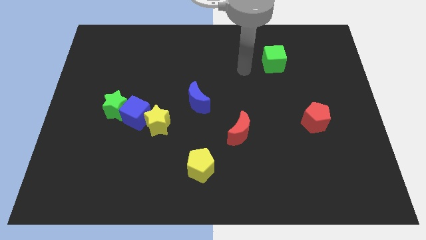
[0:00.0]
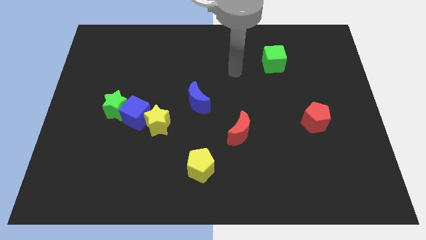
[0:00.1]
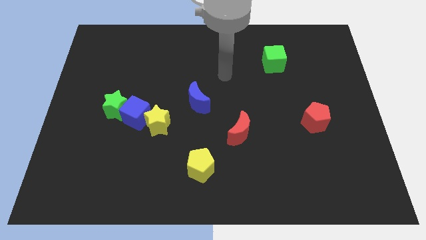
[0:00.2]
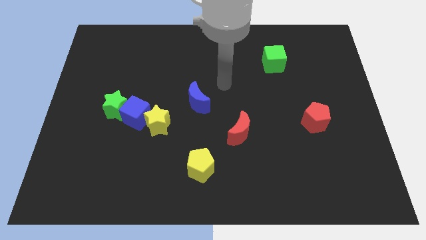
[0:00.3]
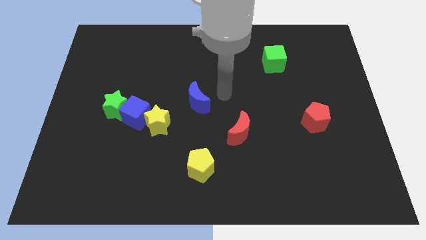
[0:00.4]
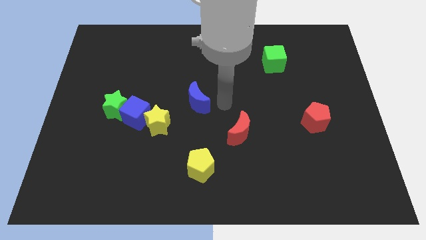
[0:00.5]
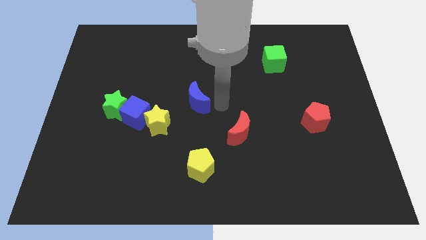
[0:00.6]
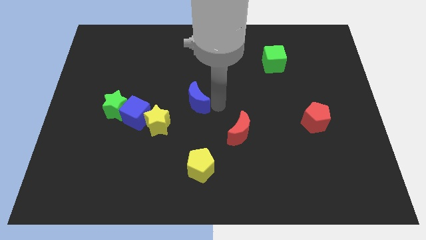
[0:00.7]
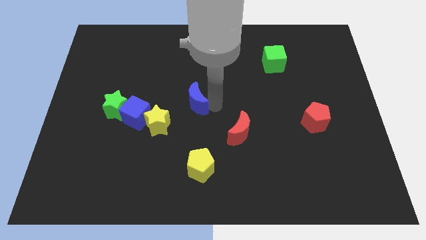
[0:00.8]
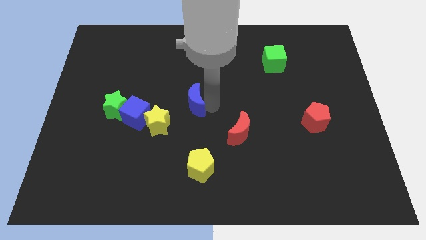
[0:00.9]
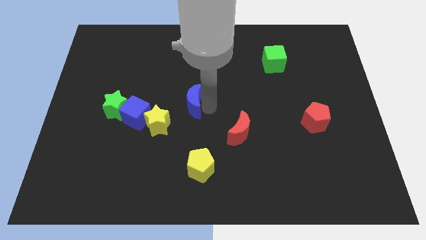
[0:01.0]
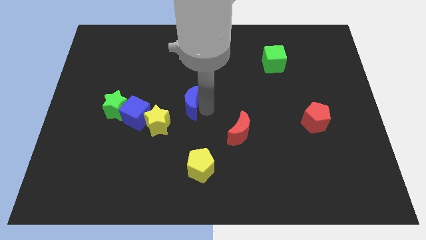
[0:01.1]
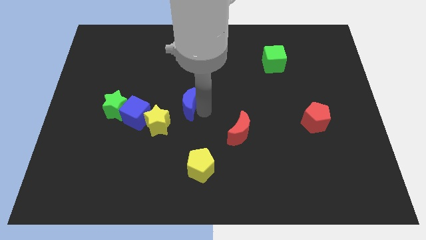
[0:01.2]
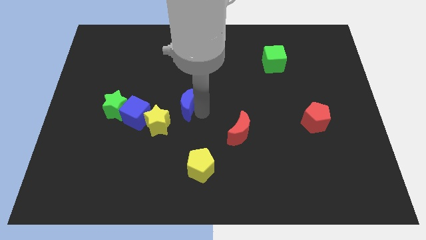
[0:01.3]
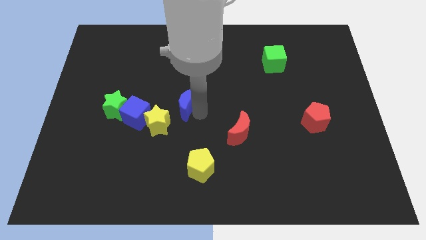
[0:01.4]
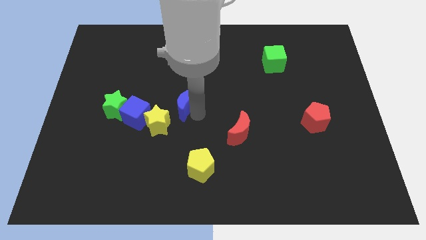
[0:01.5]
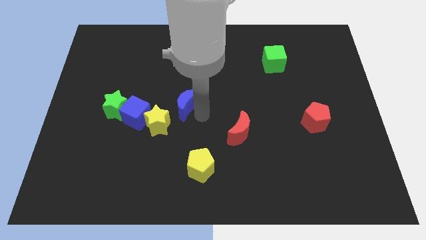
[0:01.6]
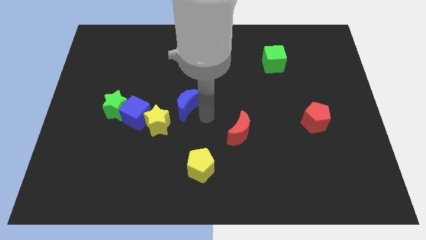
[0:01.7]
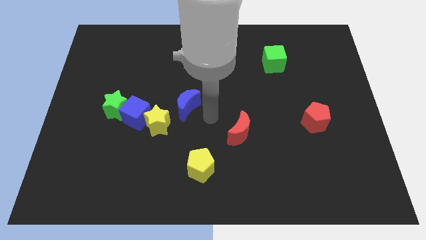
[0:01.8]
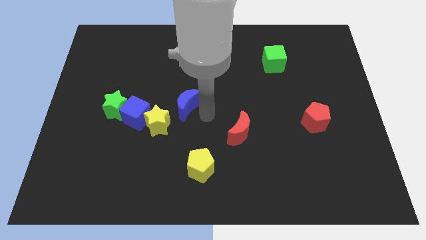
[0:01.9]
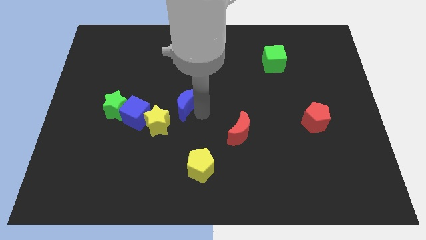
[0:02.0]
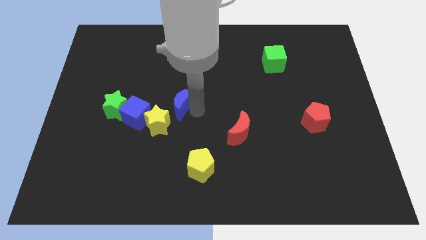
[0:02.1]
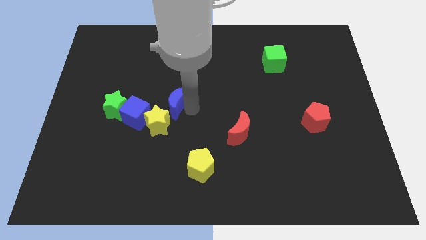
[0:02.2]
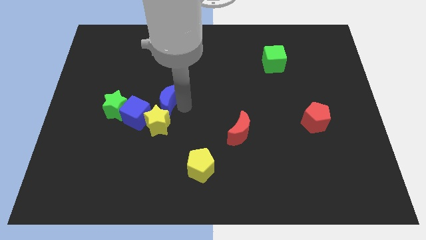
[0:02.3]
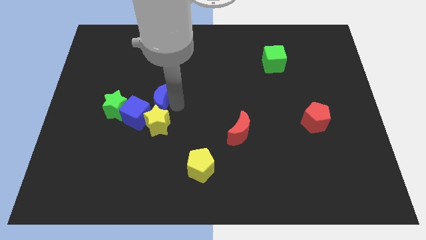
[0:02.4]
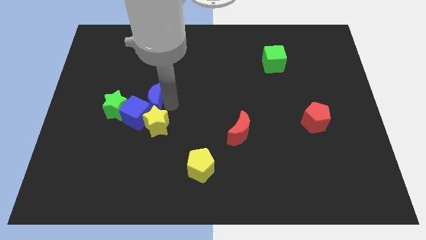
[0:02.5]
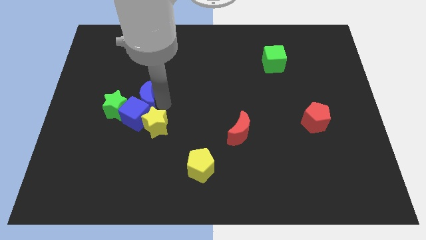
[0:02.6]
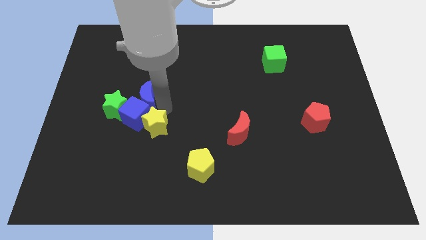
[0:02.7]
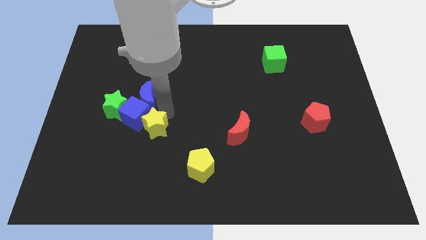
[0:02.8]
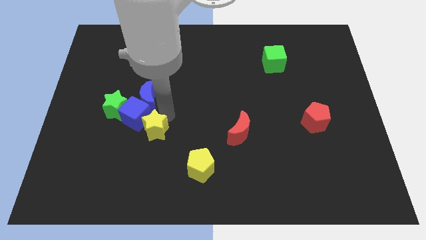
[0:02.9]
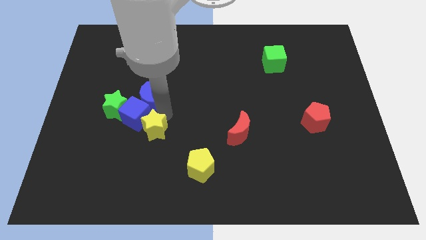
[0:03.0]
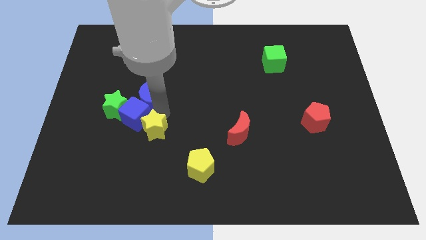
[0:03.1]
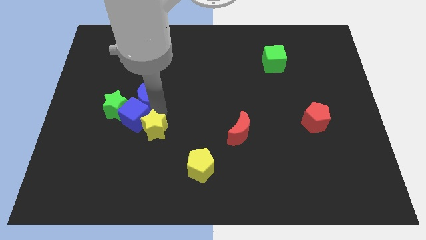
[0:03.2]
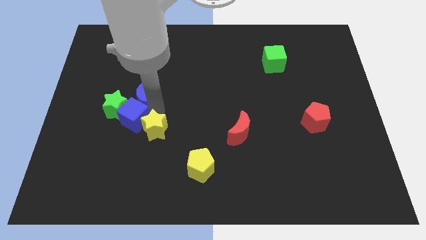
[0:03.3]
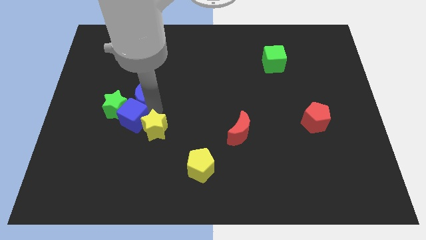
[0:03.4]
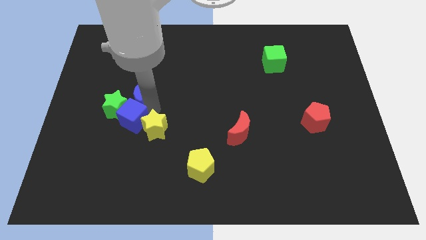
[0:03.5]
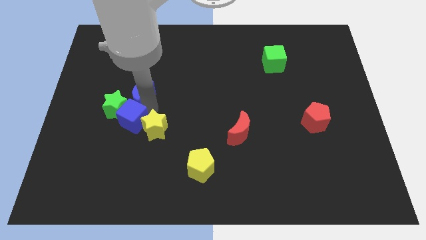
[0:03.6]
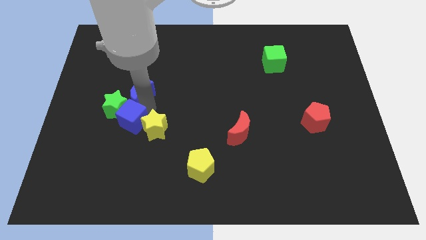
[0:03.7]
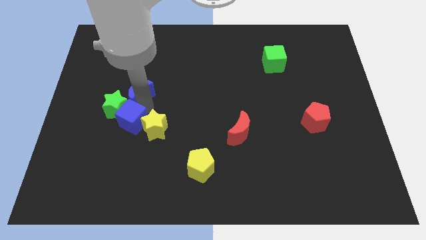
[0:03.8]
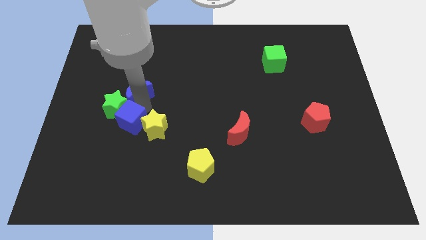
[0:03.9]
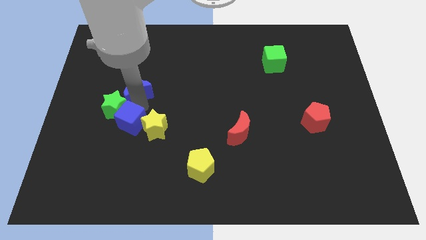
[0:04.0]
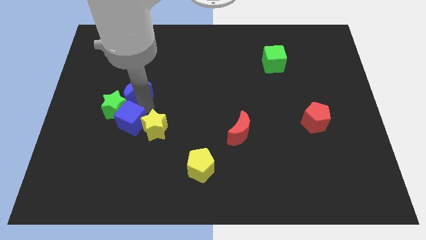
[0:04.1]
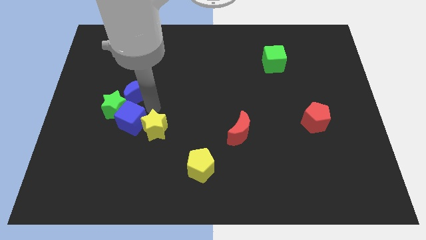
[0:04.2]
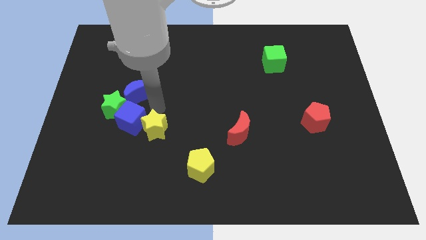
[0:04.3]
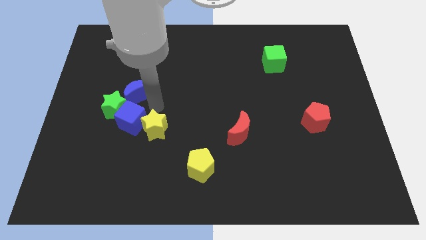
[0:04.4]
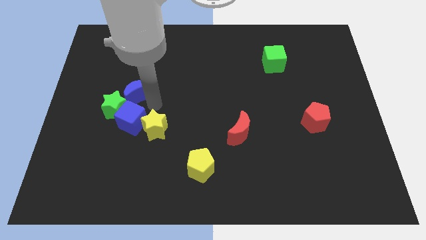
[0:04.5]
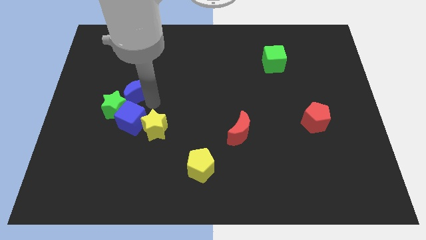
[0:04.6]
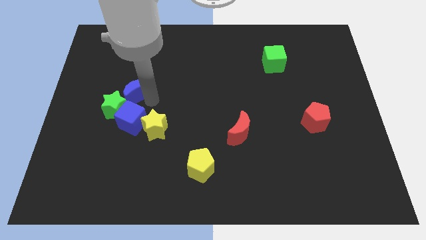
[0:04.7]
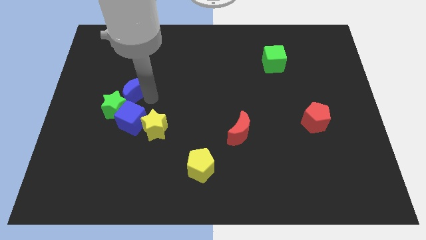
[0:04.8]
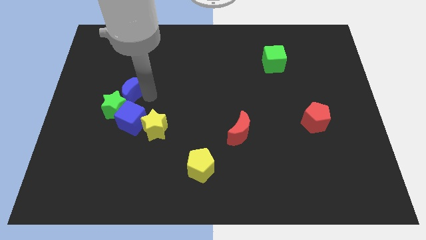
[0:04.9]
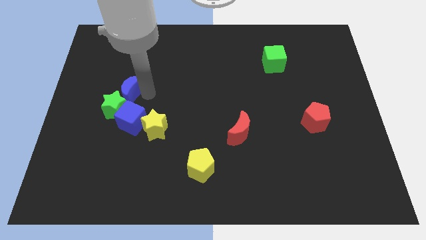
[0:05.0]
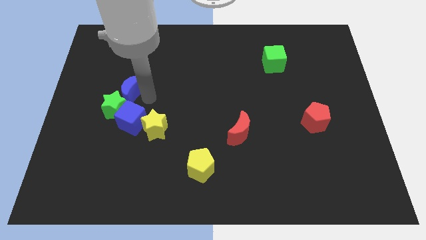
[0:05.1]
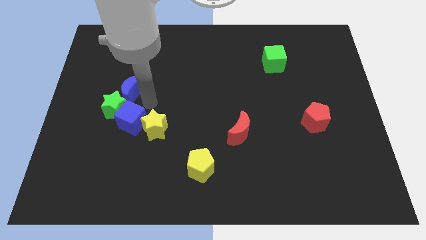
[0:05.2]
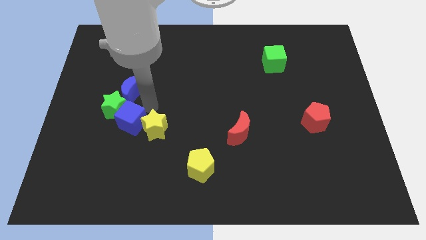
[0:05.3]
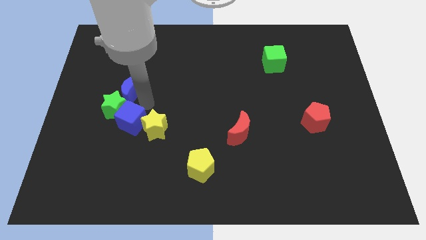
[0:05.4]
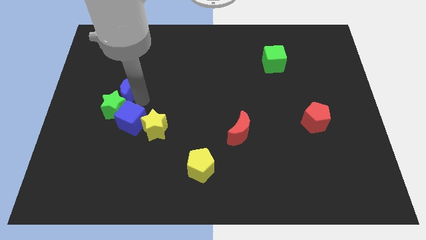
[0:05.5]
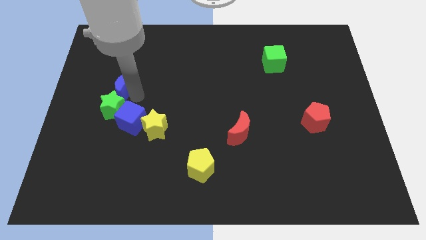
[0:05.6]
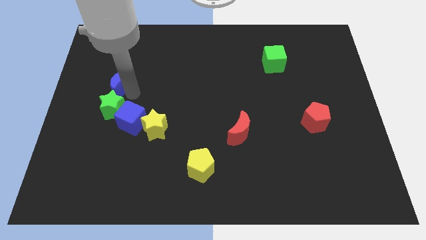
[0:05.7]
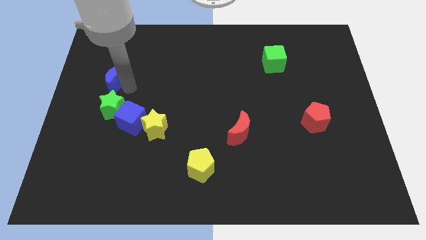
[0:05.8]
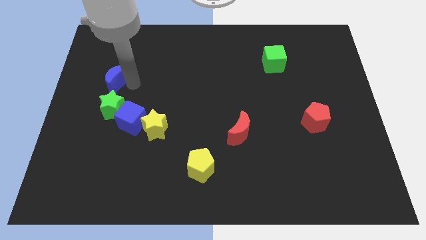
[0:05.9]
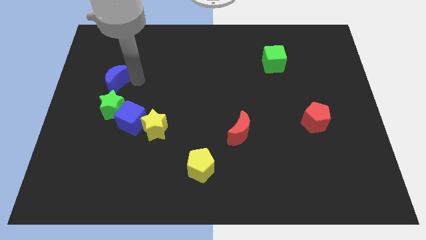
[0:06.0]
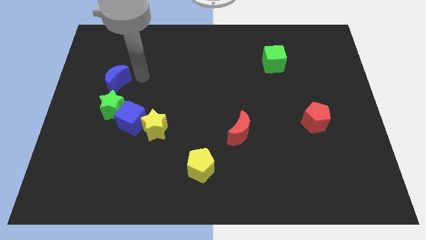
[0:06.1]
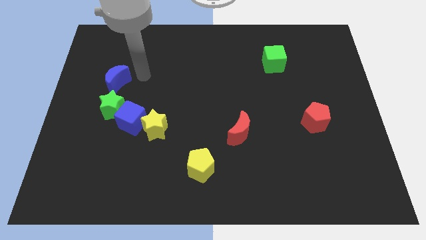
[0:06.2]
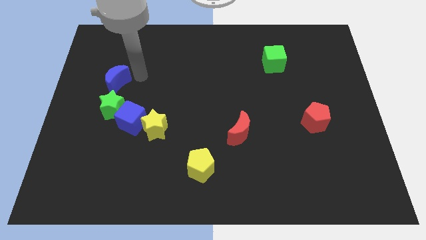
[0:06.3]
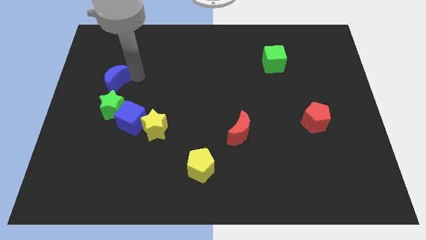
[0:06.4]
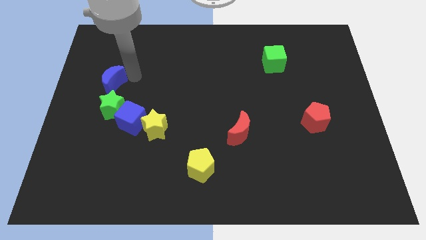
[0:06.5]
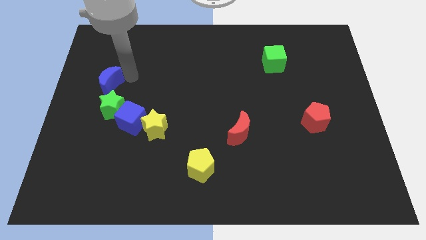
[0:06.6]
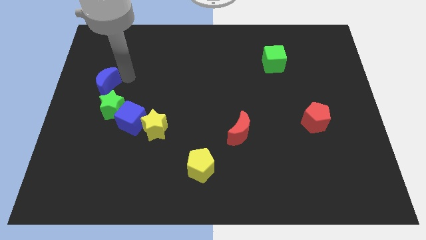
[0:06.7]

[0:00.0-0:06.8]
put the blue moon to the left side of the board
